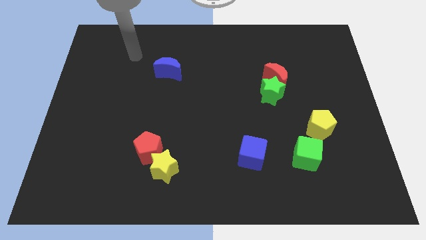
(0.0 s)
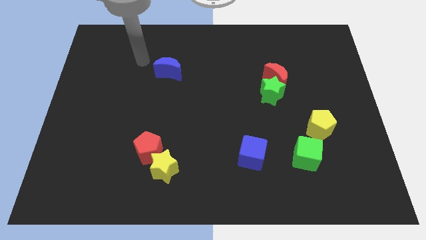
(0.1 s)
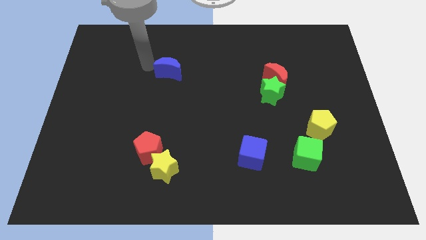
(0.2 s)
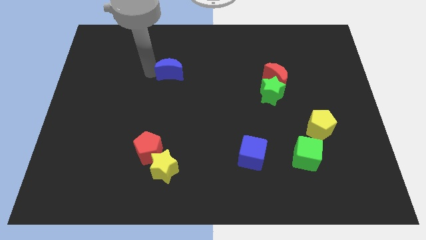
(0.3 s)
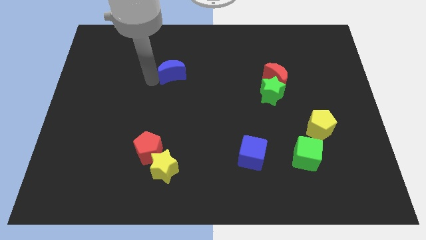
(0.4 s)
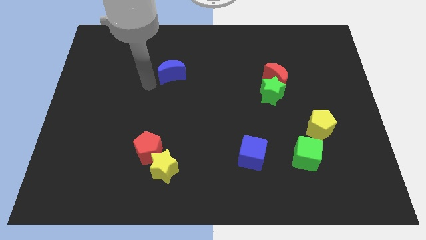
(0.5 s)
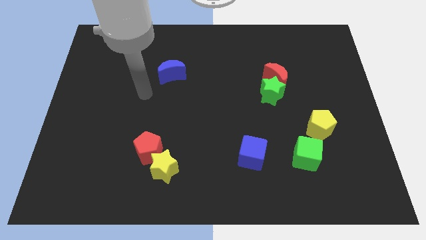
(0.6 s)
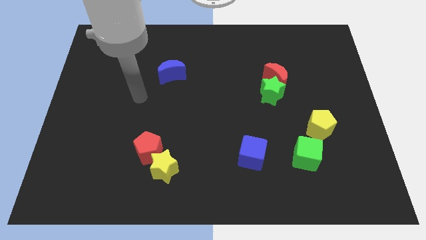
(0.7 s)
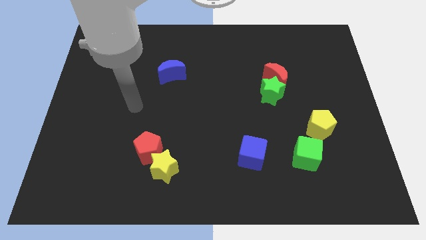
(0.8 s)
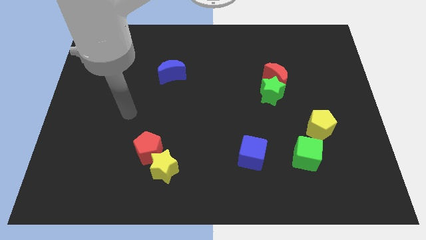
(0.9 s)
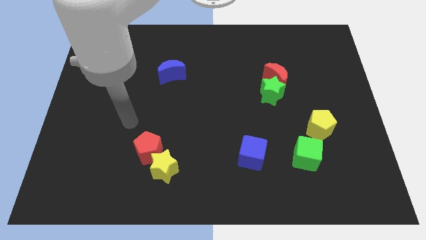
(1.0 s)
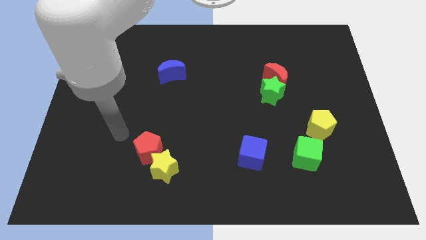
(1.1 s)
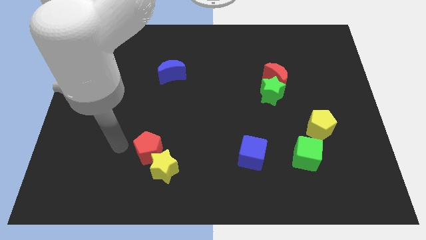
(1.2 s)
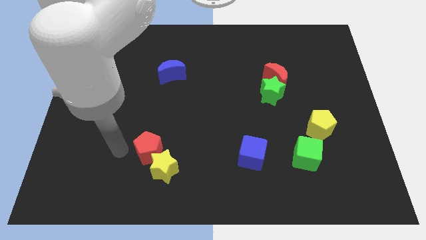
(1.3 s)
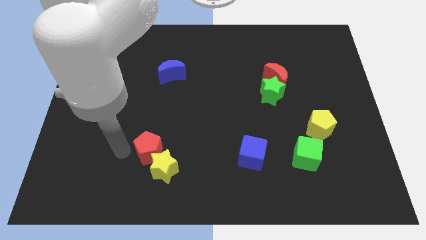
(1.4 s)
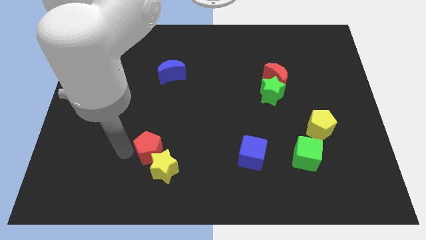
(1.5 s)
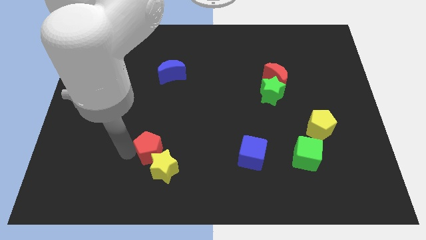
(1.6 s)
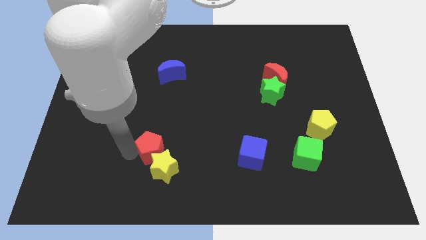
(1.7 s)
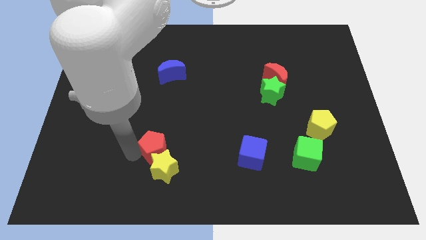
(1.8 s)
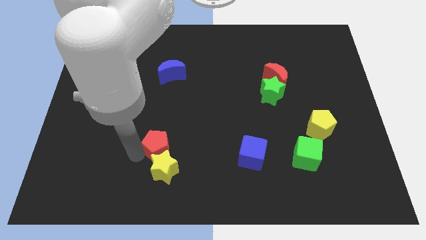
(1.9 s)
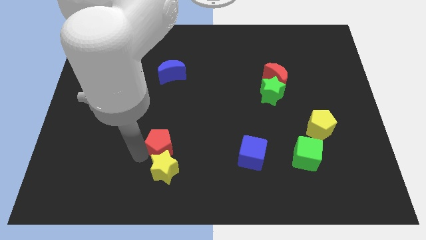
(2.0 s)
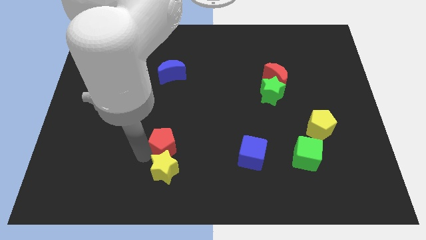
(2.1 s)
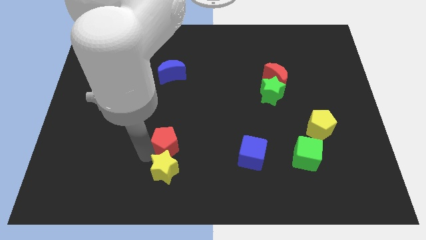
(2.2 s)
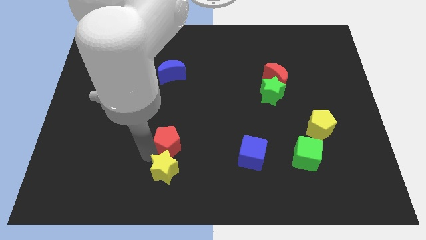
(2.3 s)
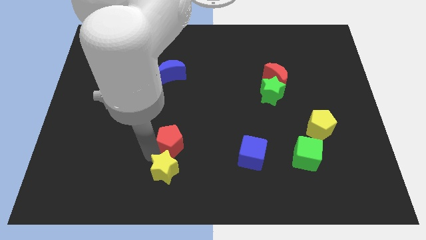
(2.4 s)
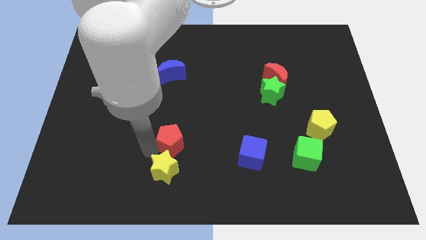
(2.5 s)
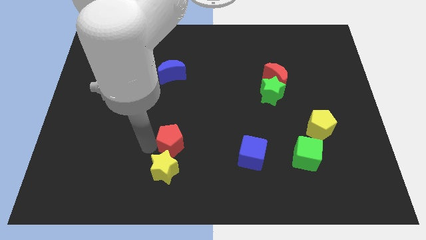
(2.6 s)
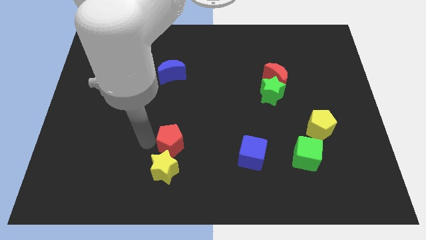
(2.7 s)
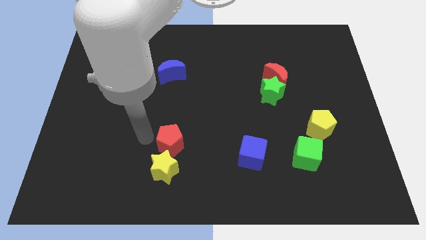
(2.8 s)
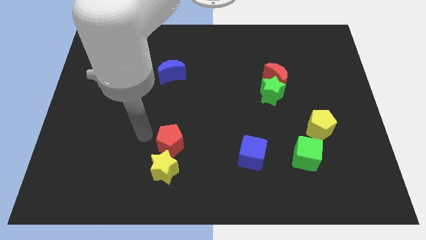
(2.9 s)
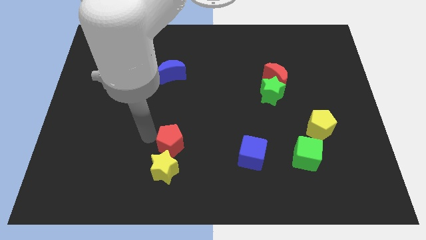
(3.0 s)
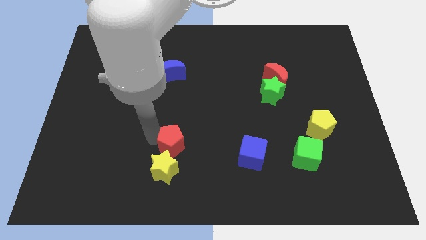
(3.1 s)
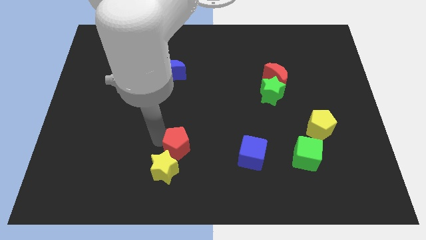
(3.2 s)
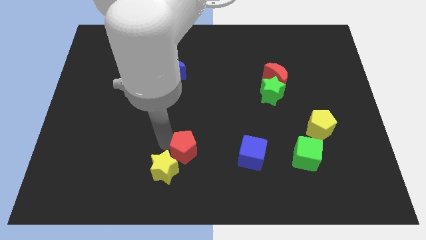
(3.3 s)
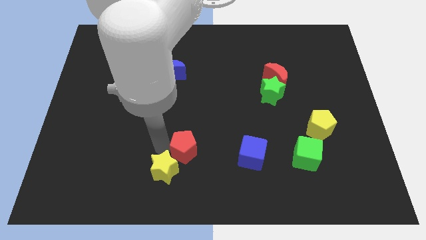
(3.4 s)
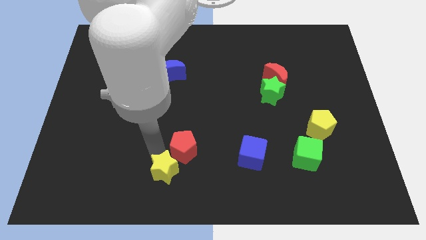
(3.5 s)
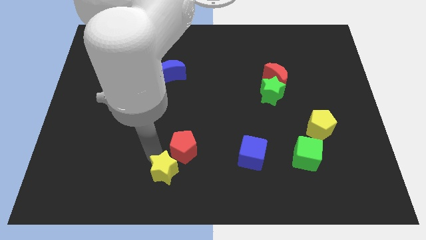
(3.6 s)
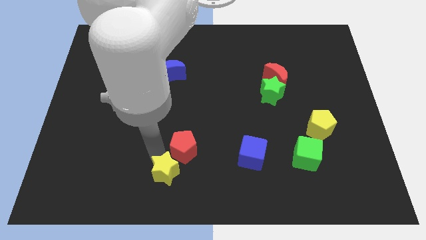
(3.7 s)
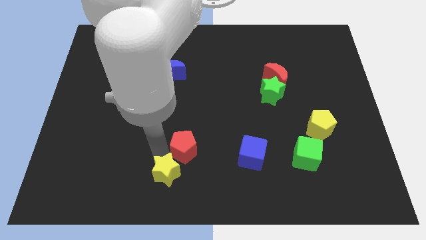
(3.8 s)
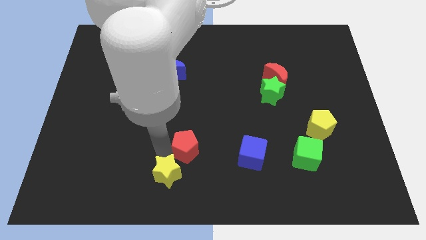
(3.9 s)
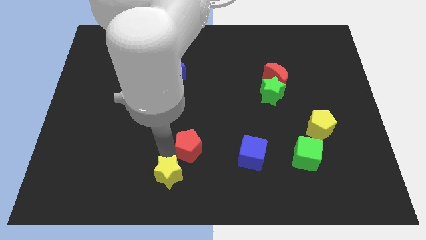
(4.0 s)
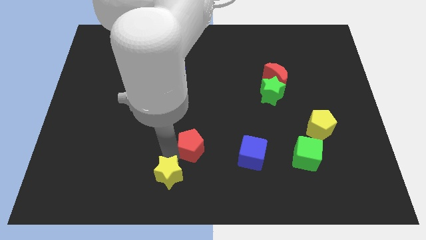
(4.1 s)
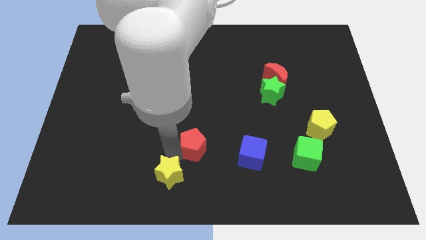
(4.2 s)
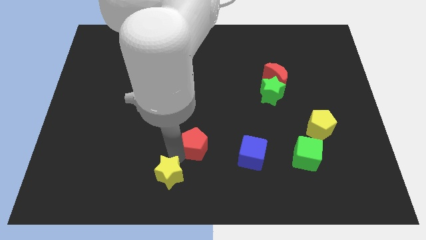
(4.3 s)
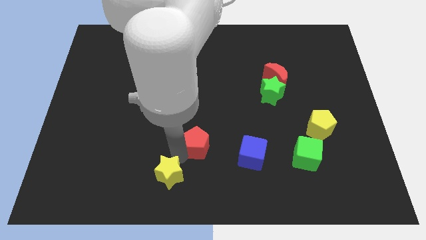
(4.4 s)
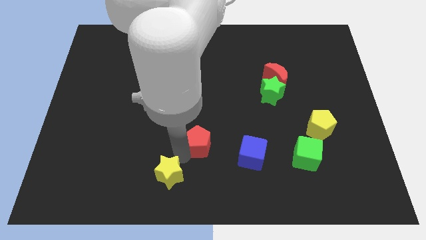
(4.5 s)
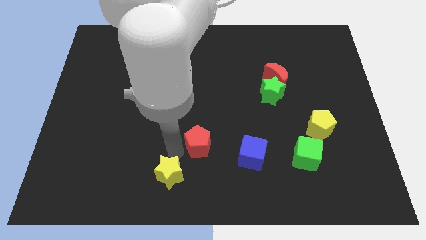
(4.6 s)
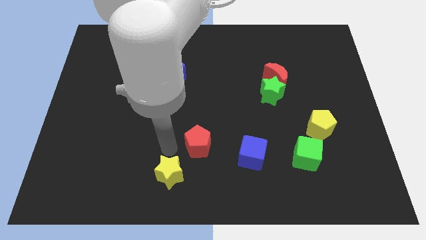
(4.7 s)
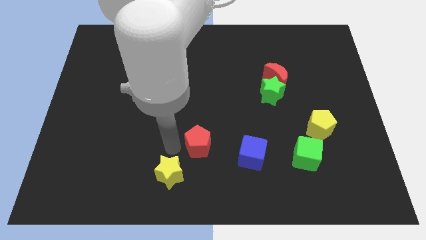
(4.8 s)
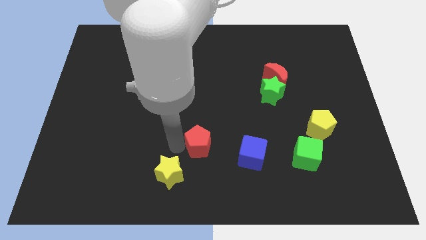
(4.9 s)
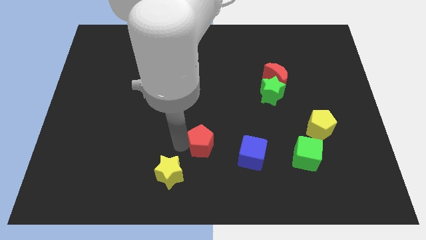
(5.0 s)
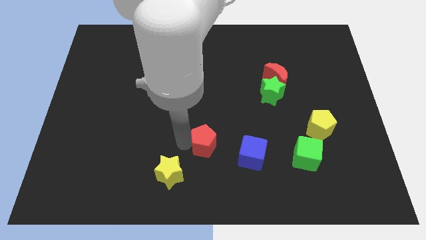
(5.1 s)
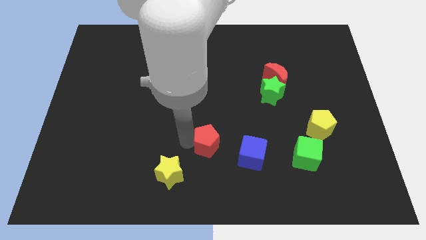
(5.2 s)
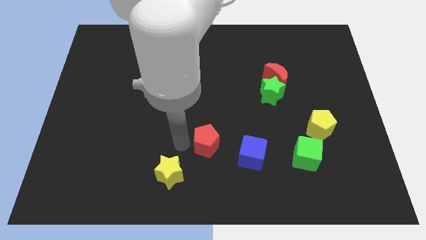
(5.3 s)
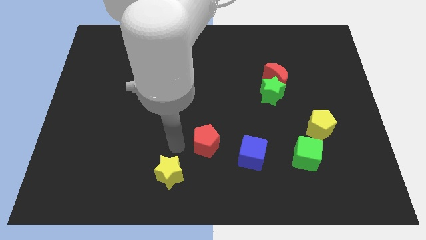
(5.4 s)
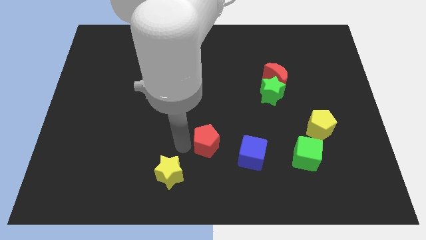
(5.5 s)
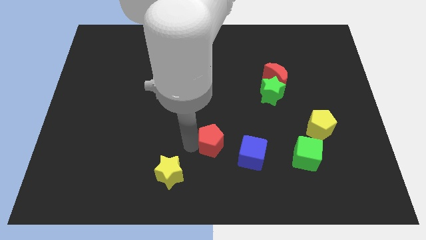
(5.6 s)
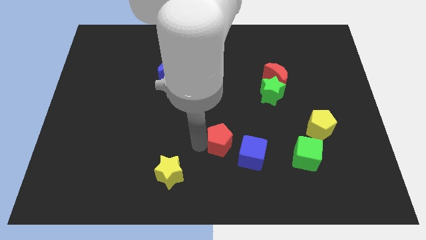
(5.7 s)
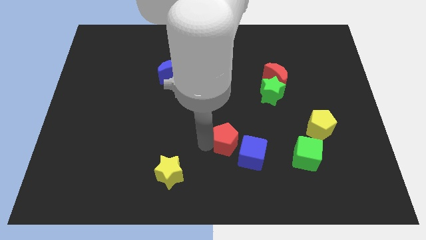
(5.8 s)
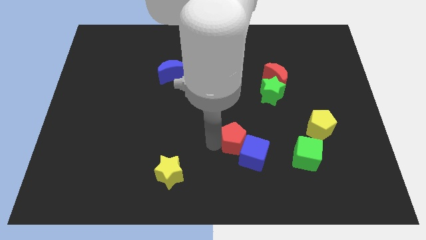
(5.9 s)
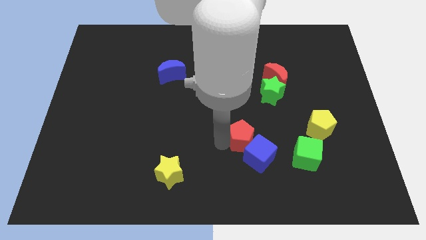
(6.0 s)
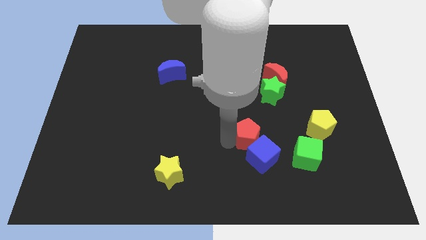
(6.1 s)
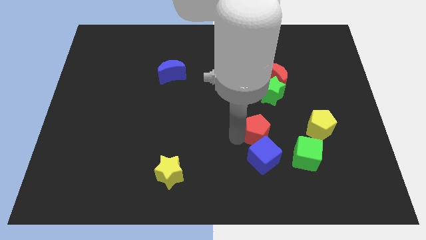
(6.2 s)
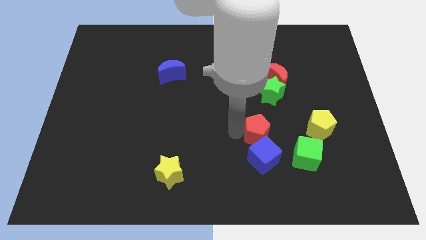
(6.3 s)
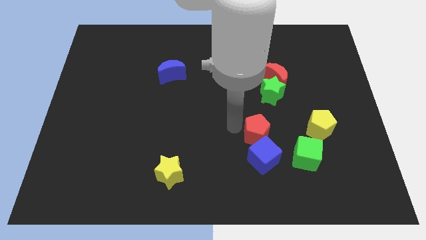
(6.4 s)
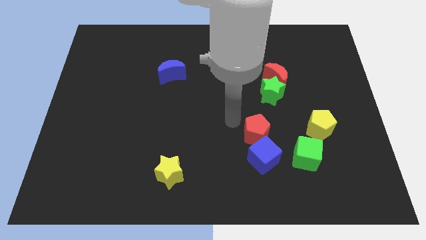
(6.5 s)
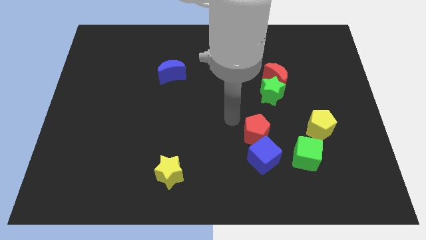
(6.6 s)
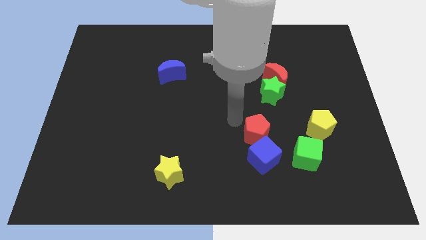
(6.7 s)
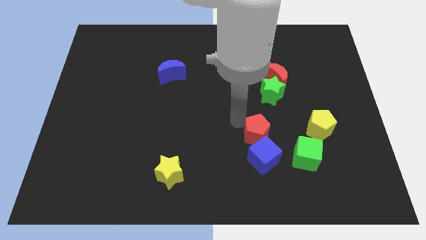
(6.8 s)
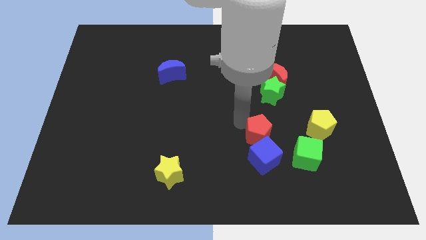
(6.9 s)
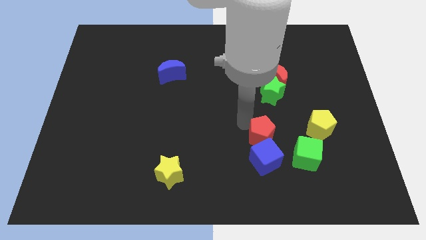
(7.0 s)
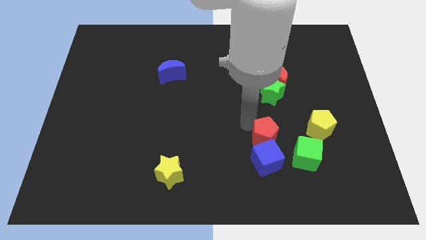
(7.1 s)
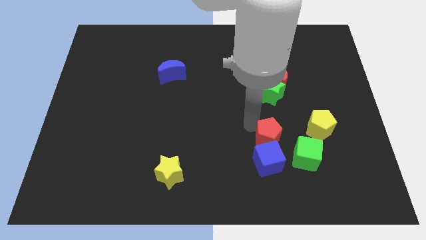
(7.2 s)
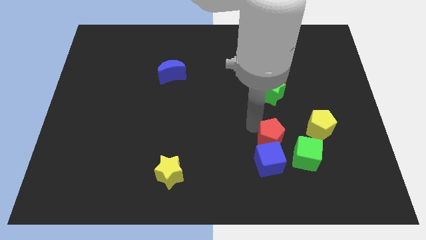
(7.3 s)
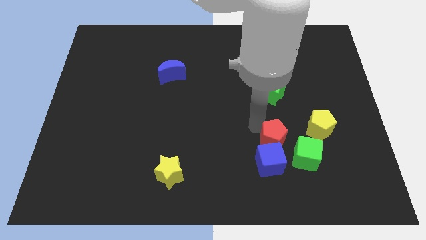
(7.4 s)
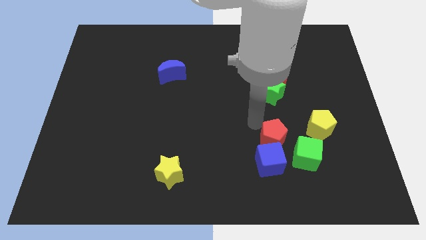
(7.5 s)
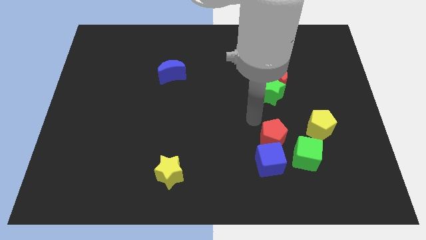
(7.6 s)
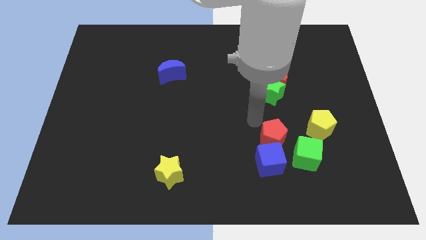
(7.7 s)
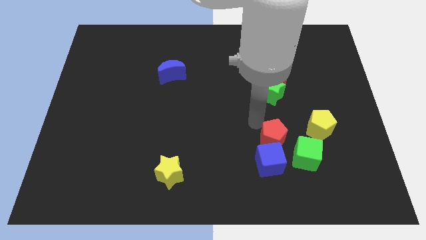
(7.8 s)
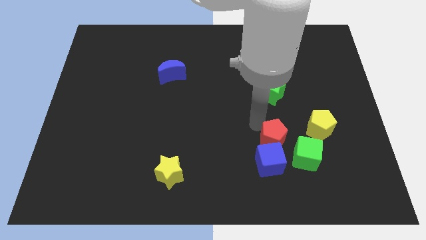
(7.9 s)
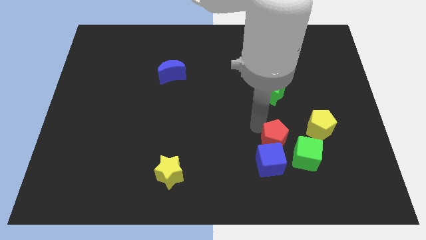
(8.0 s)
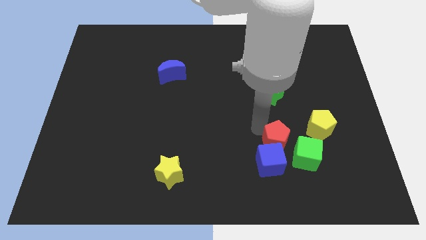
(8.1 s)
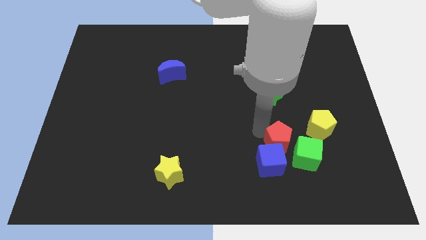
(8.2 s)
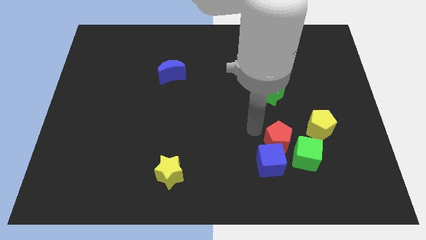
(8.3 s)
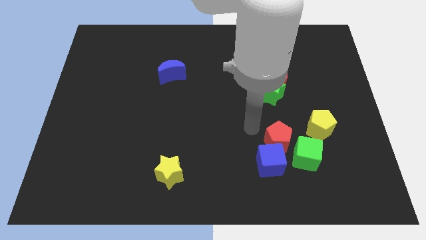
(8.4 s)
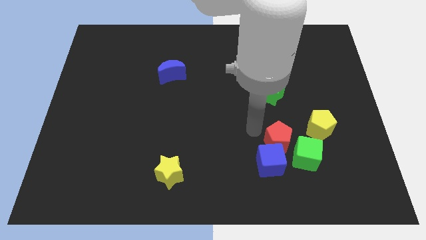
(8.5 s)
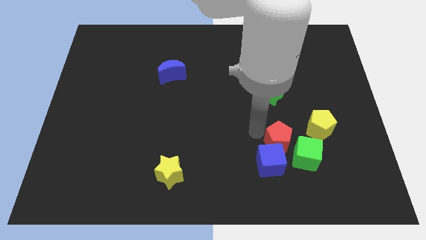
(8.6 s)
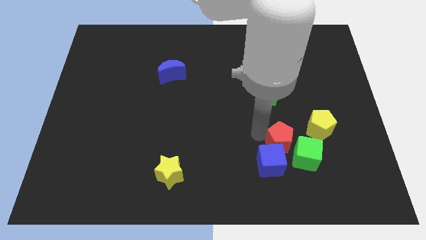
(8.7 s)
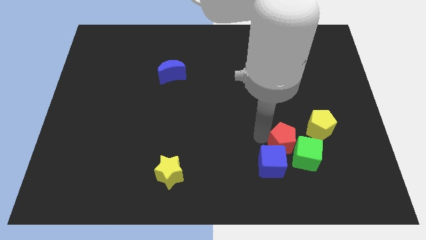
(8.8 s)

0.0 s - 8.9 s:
push the red pentagon to the green cube
